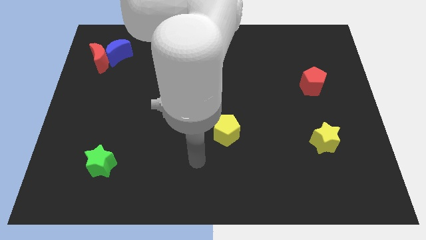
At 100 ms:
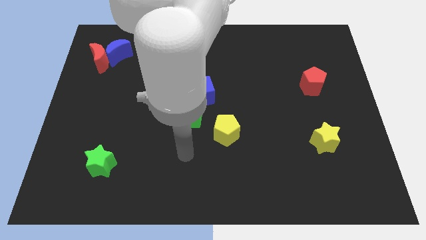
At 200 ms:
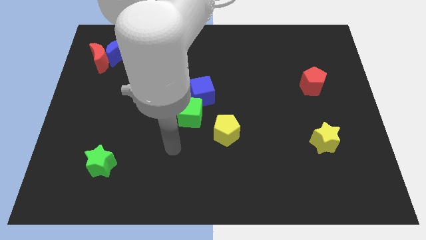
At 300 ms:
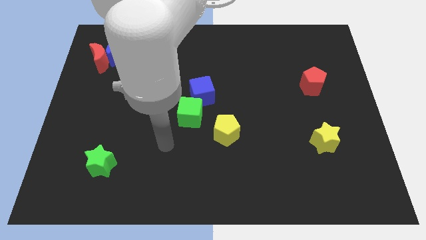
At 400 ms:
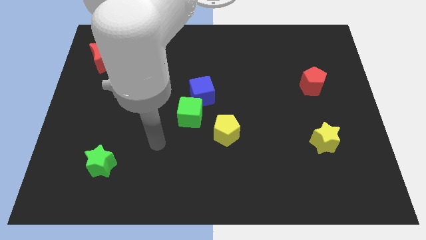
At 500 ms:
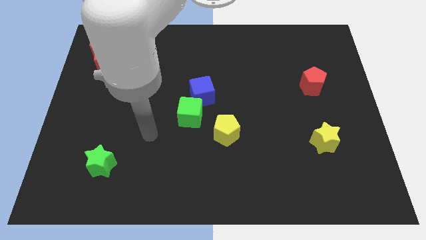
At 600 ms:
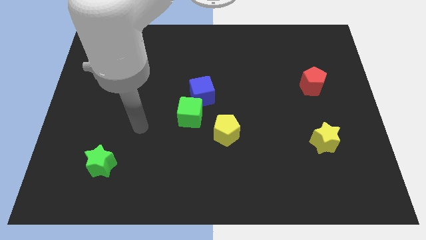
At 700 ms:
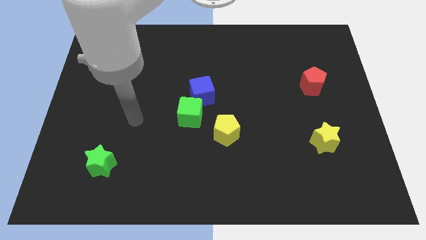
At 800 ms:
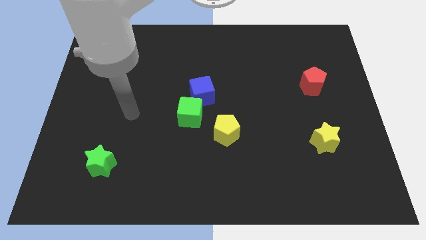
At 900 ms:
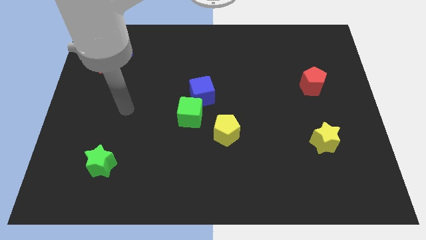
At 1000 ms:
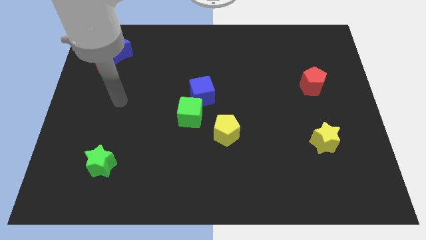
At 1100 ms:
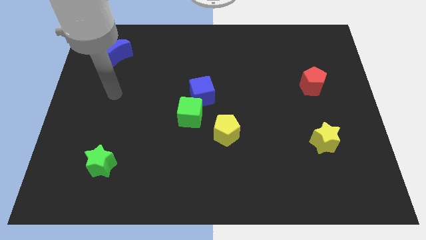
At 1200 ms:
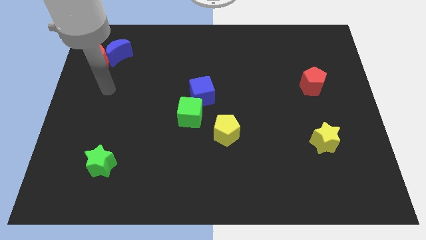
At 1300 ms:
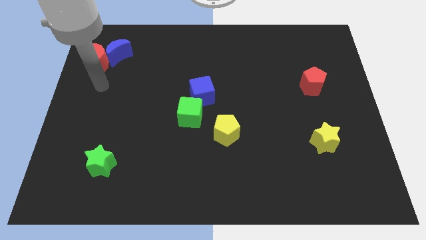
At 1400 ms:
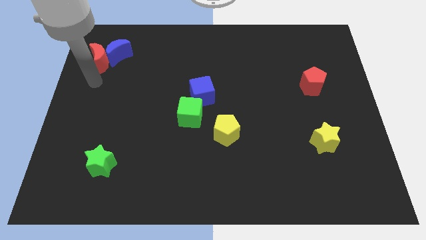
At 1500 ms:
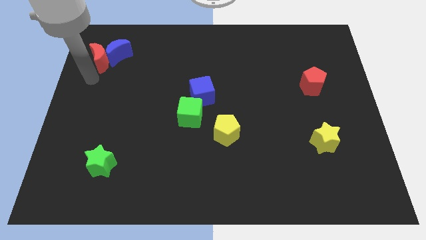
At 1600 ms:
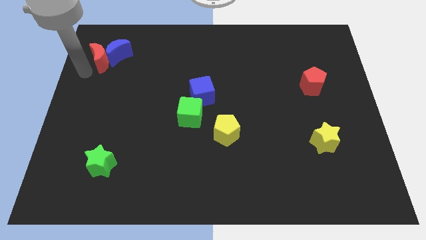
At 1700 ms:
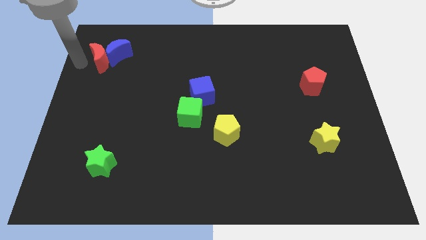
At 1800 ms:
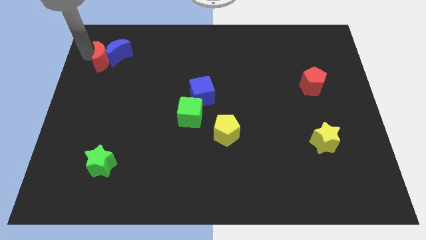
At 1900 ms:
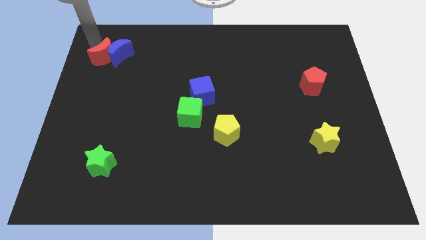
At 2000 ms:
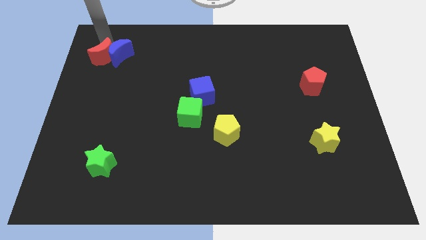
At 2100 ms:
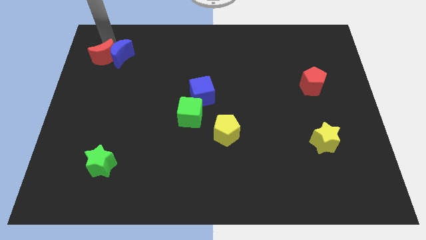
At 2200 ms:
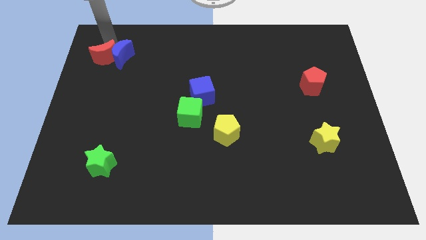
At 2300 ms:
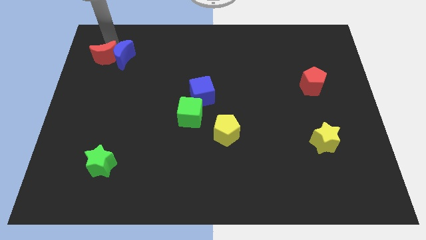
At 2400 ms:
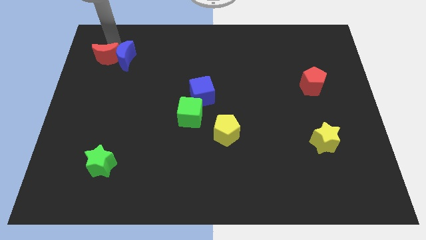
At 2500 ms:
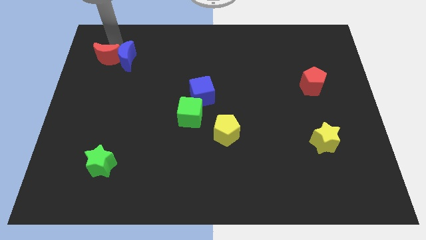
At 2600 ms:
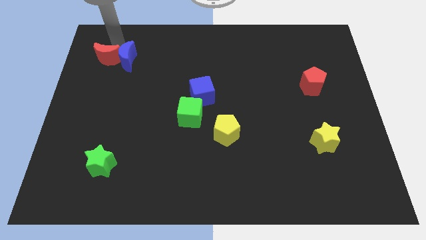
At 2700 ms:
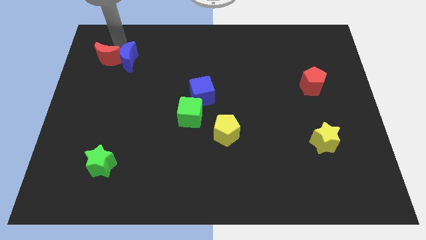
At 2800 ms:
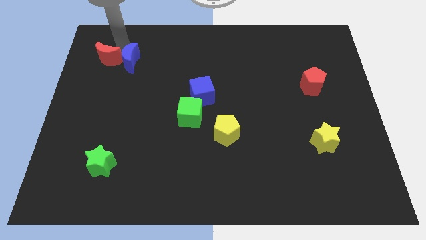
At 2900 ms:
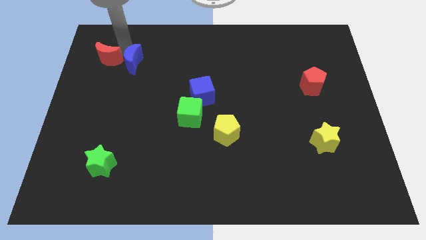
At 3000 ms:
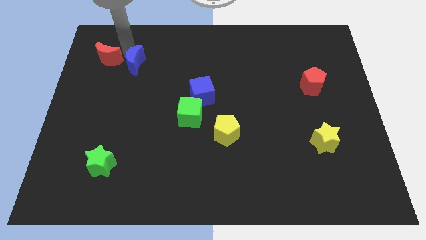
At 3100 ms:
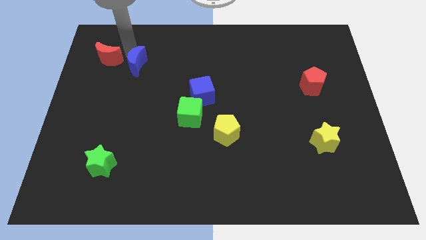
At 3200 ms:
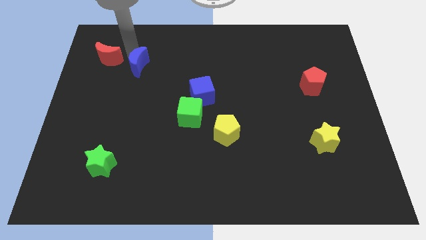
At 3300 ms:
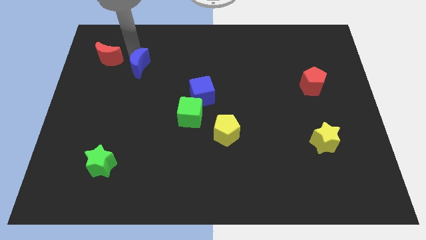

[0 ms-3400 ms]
move the blue moon a bit down and right

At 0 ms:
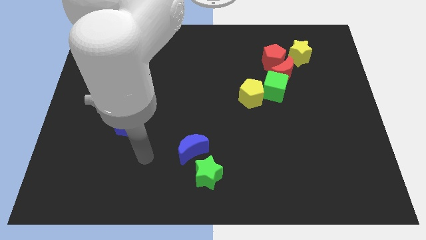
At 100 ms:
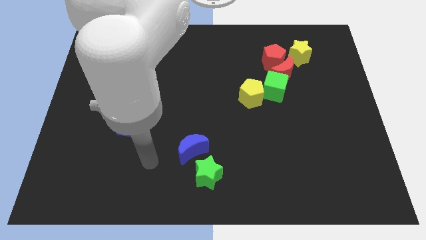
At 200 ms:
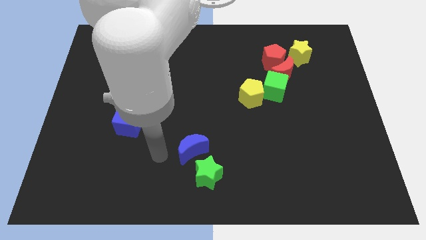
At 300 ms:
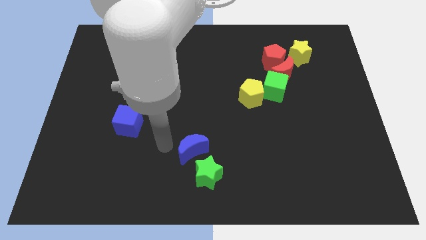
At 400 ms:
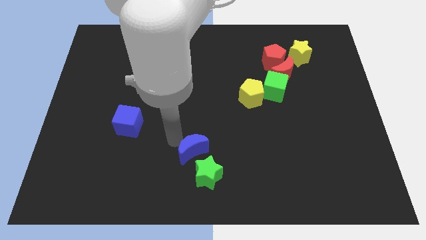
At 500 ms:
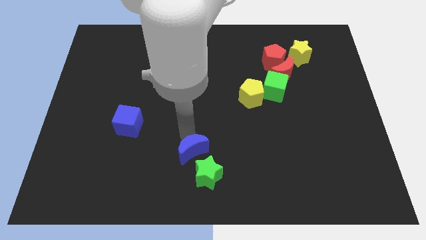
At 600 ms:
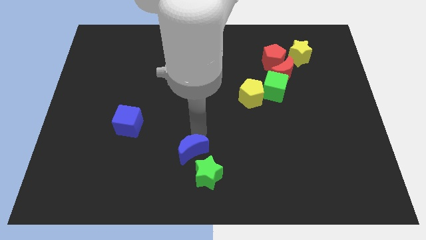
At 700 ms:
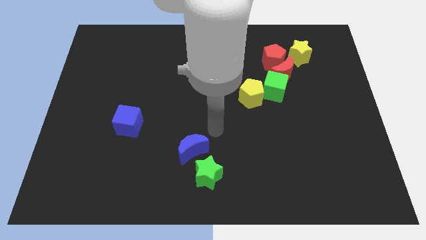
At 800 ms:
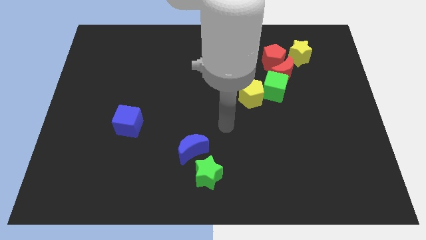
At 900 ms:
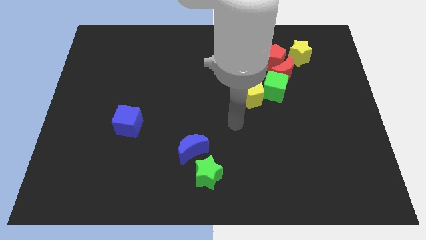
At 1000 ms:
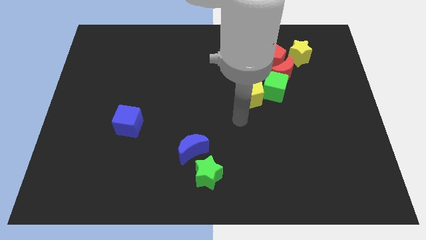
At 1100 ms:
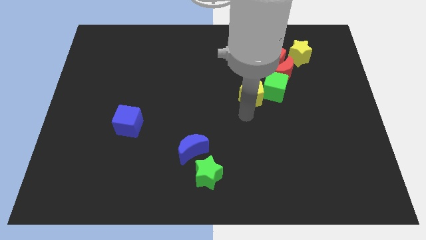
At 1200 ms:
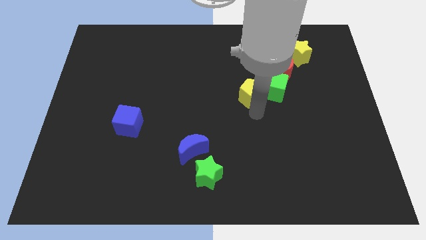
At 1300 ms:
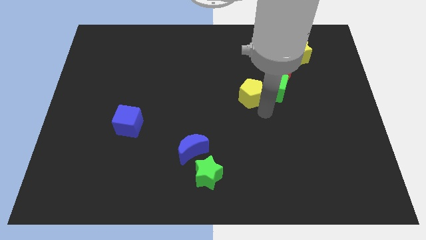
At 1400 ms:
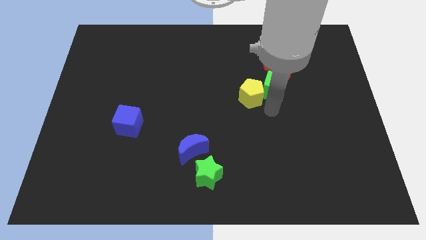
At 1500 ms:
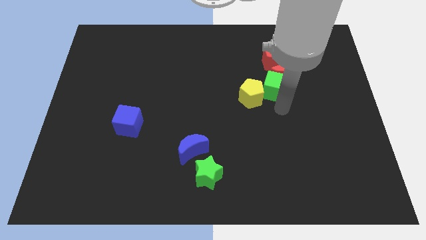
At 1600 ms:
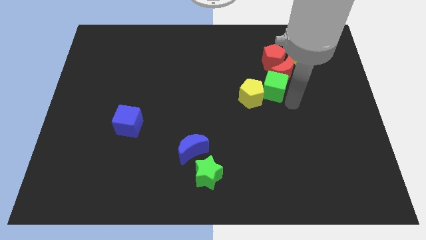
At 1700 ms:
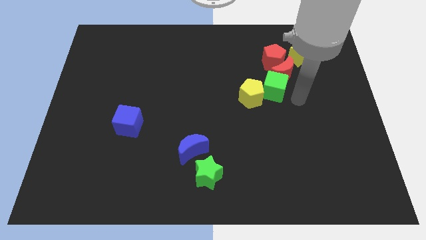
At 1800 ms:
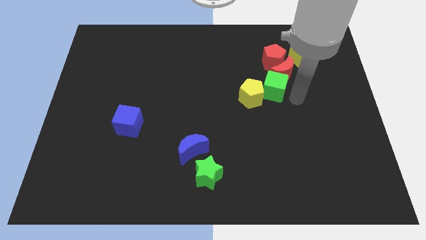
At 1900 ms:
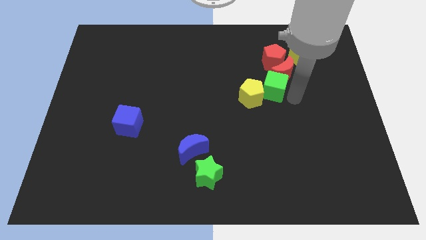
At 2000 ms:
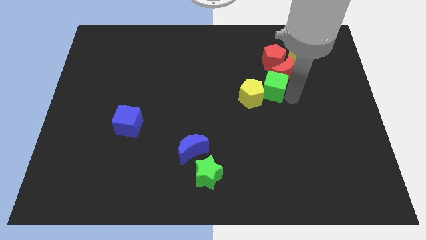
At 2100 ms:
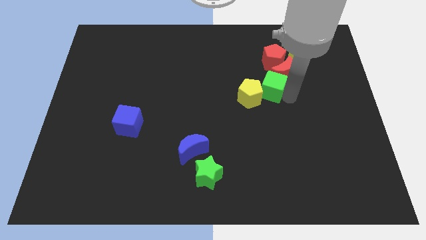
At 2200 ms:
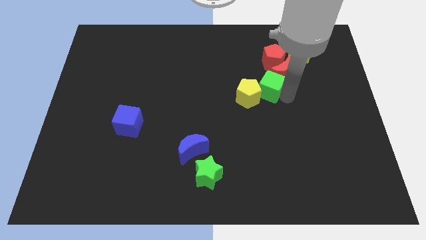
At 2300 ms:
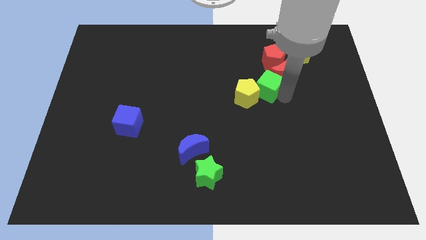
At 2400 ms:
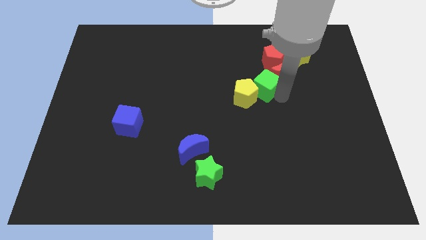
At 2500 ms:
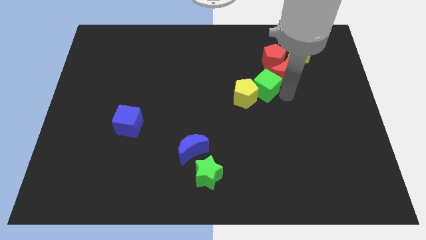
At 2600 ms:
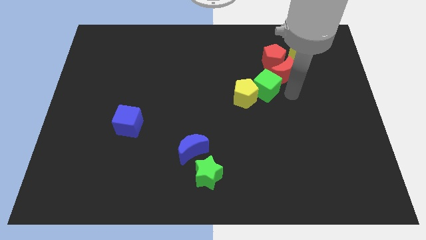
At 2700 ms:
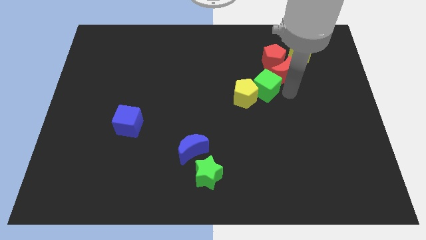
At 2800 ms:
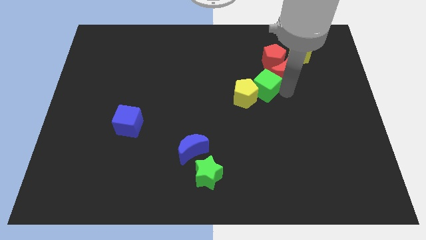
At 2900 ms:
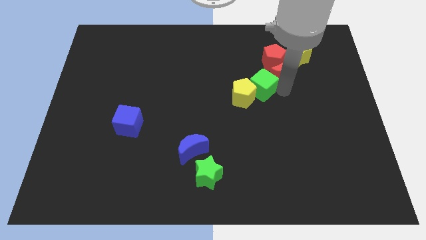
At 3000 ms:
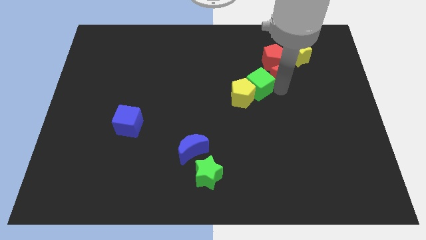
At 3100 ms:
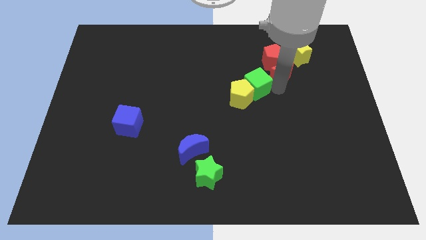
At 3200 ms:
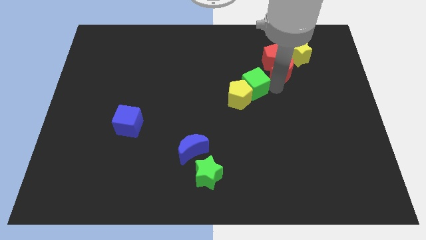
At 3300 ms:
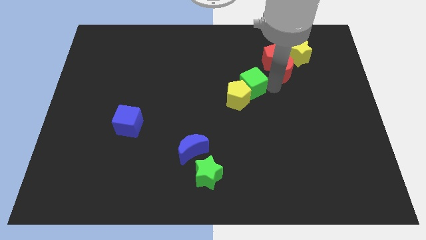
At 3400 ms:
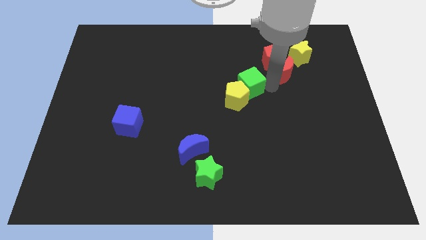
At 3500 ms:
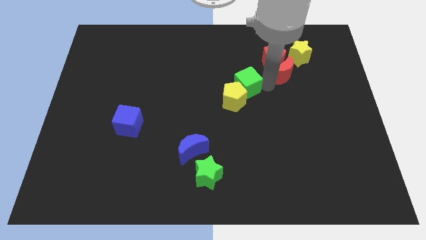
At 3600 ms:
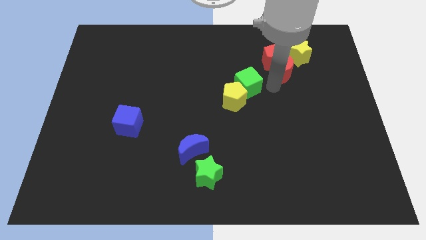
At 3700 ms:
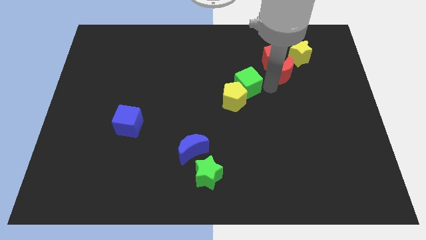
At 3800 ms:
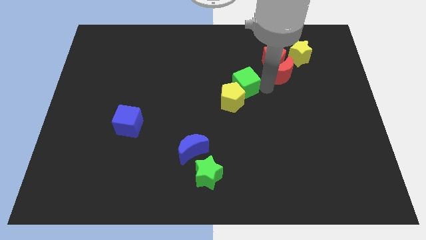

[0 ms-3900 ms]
slide the green cube left a little

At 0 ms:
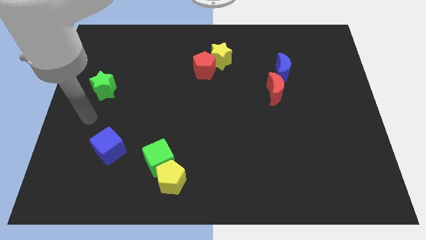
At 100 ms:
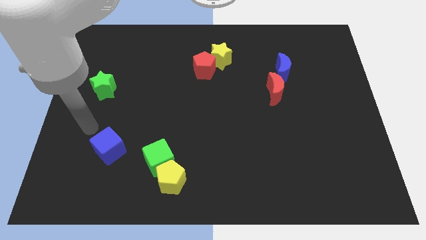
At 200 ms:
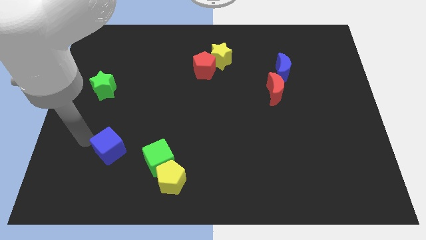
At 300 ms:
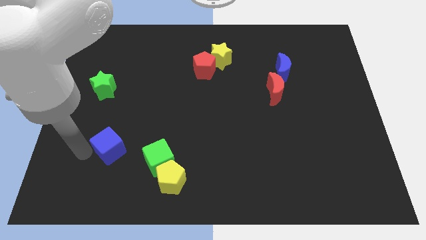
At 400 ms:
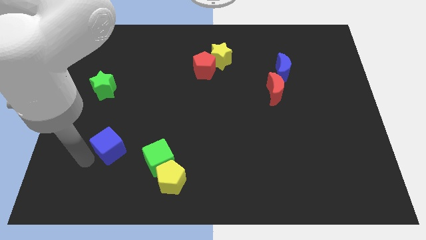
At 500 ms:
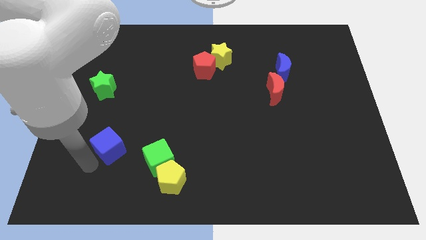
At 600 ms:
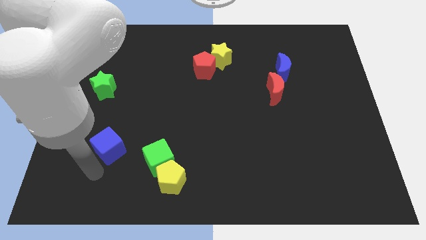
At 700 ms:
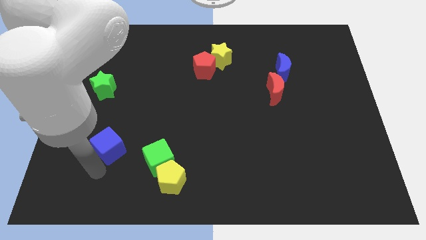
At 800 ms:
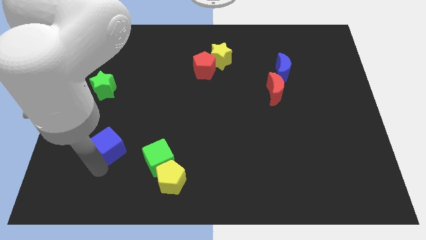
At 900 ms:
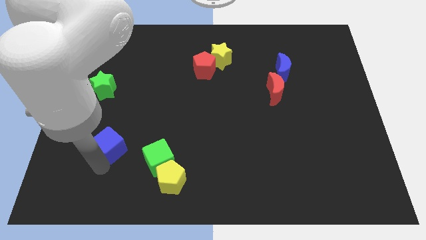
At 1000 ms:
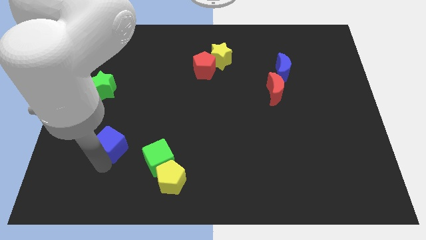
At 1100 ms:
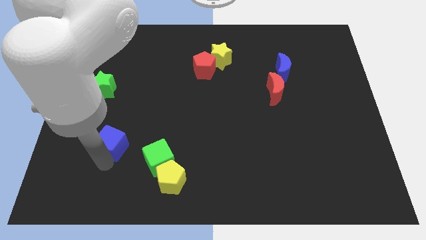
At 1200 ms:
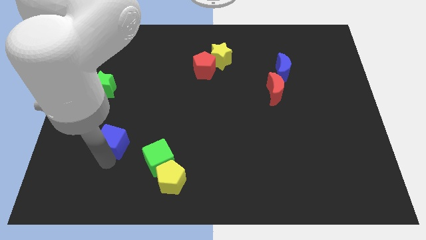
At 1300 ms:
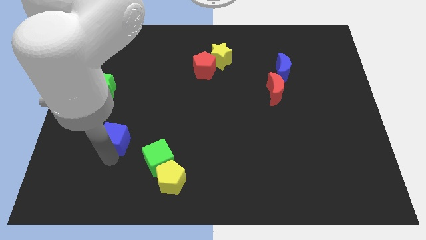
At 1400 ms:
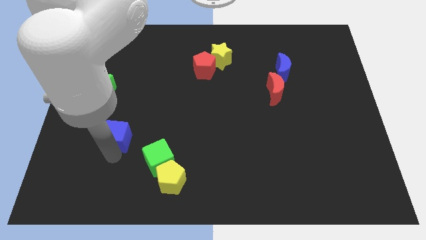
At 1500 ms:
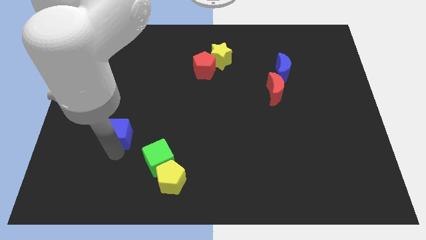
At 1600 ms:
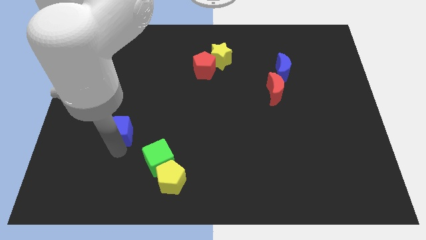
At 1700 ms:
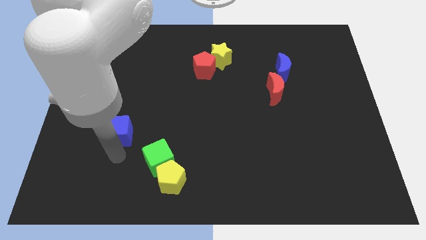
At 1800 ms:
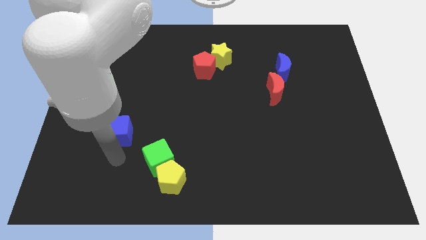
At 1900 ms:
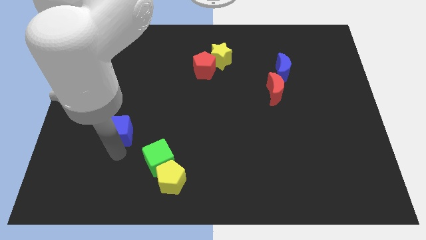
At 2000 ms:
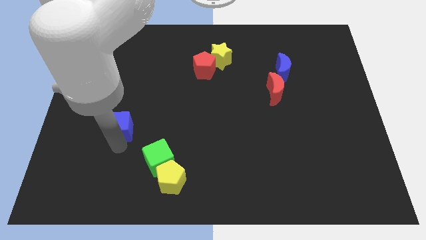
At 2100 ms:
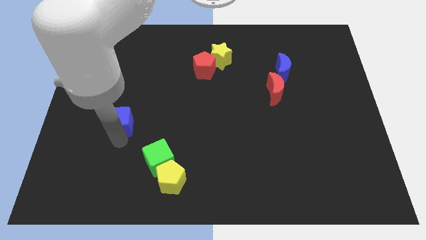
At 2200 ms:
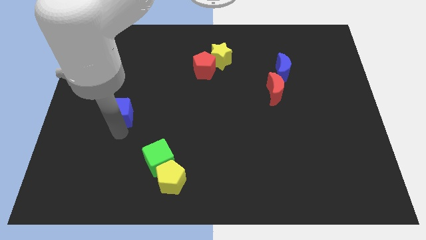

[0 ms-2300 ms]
move the blue cube a little bit up
